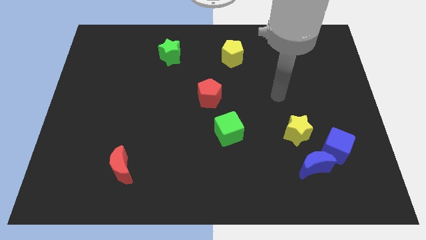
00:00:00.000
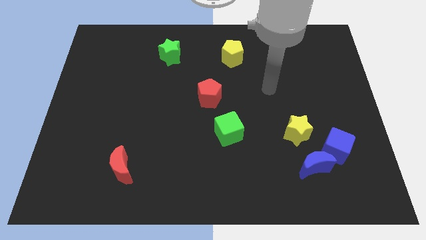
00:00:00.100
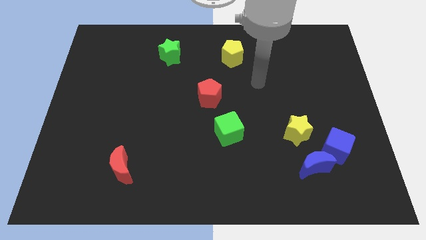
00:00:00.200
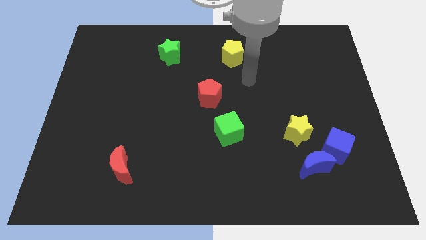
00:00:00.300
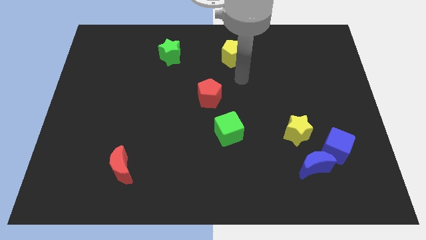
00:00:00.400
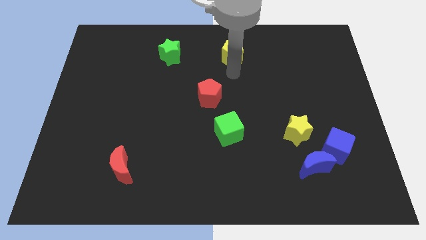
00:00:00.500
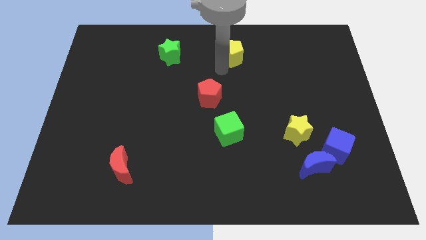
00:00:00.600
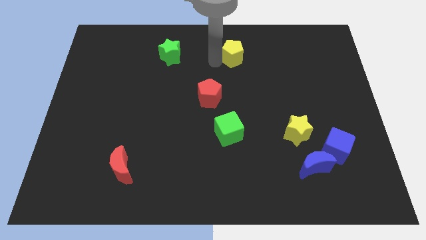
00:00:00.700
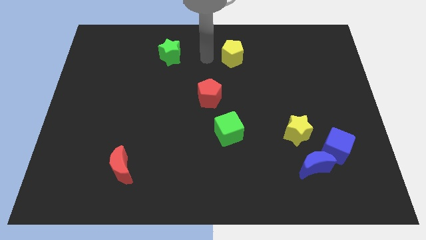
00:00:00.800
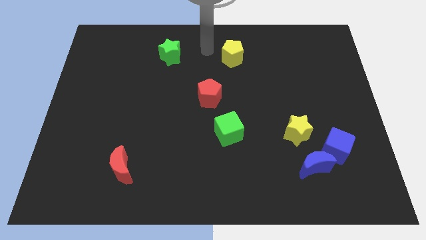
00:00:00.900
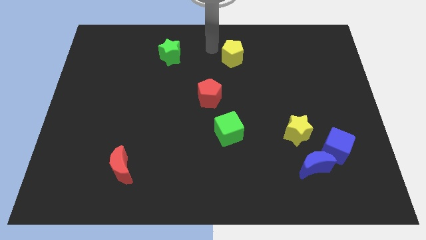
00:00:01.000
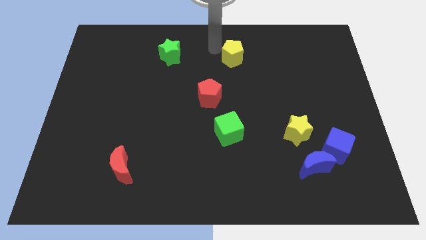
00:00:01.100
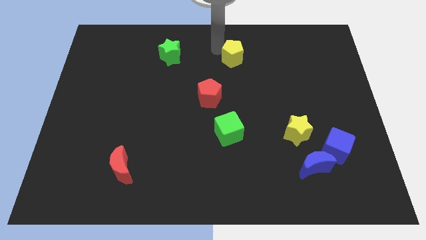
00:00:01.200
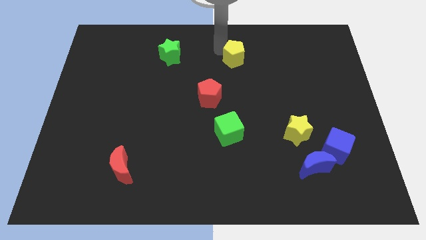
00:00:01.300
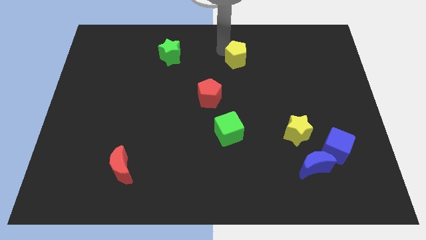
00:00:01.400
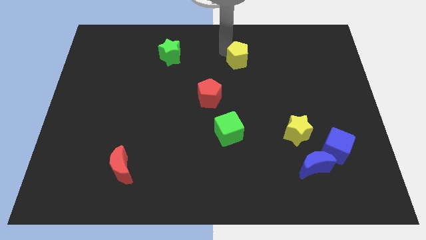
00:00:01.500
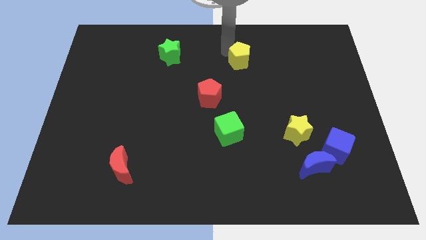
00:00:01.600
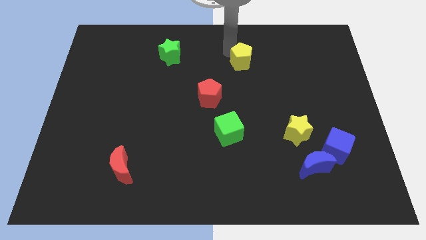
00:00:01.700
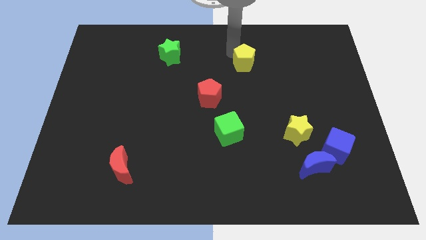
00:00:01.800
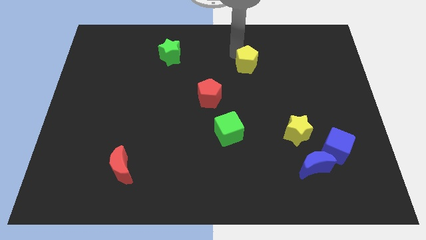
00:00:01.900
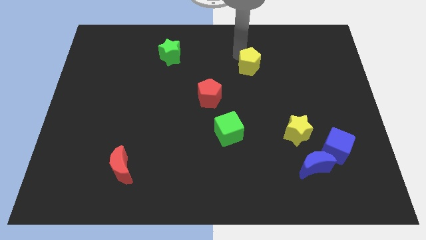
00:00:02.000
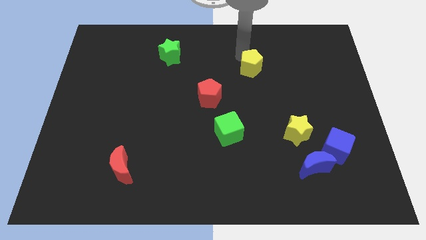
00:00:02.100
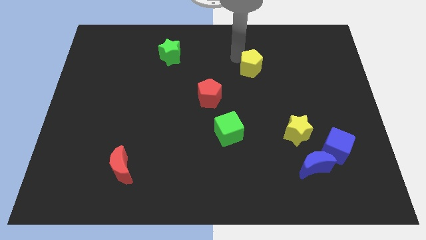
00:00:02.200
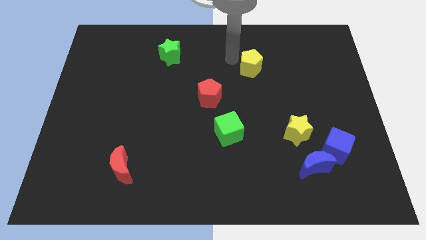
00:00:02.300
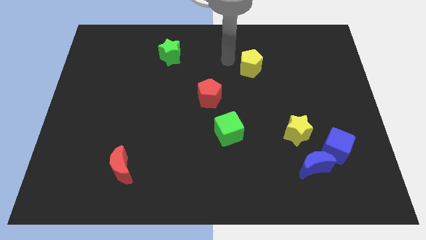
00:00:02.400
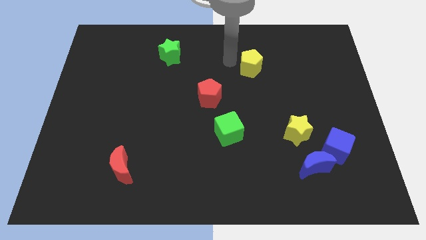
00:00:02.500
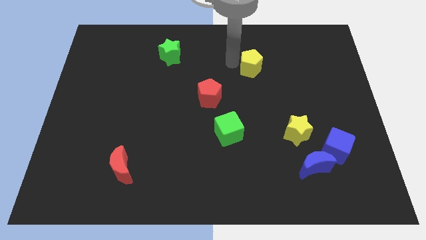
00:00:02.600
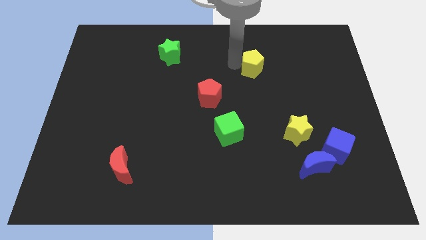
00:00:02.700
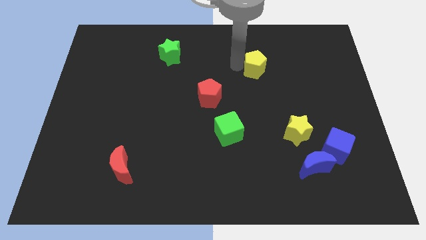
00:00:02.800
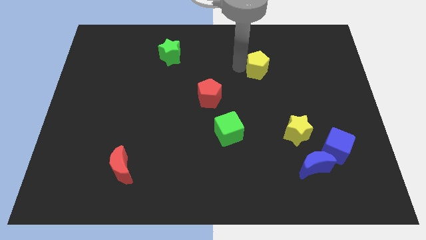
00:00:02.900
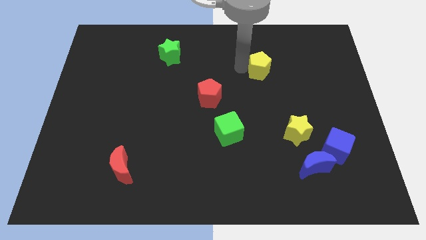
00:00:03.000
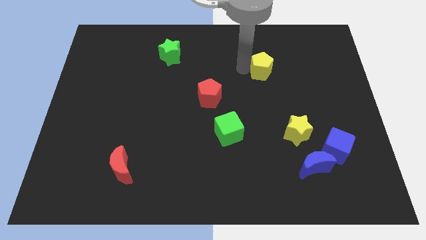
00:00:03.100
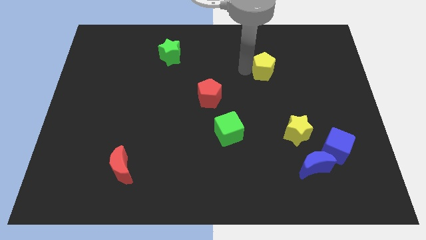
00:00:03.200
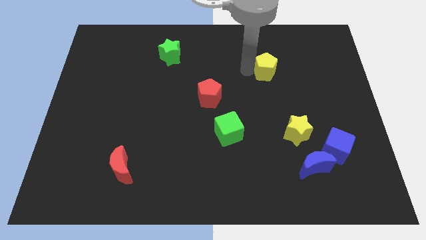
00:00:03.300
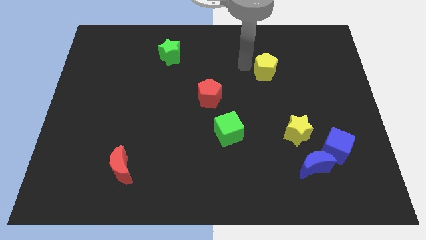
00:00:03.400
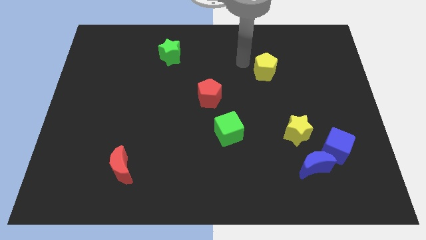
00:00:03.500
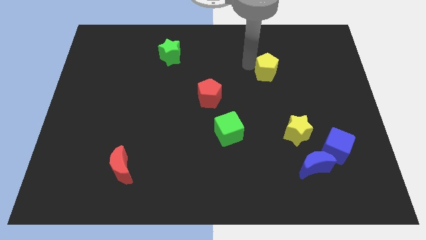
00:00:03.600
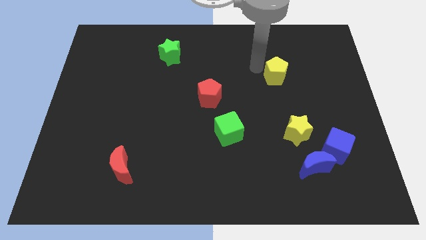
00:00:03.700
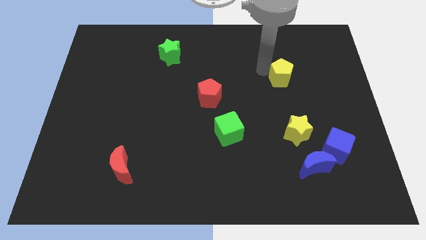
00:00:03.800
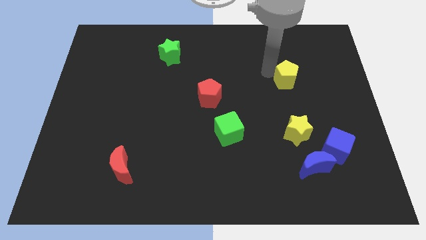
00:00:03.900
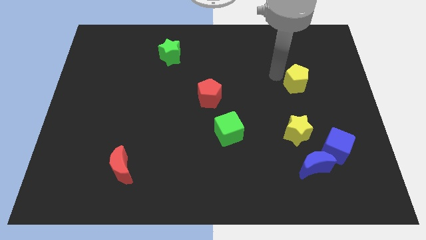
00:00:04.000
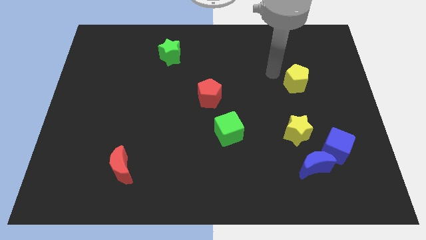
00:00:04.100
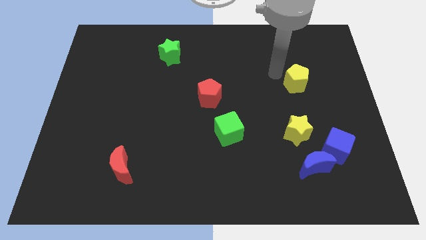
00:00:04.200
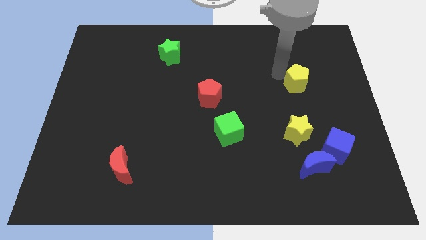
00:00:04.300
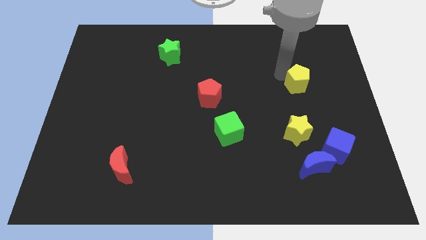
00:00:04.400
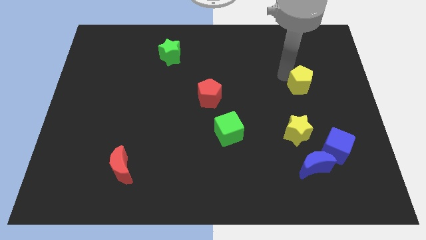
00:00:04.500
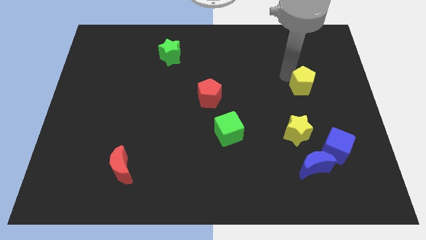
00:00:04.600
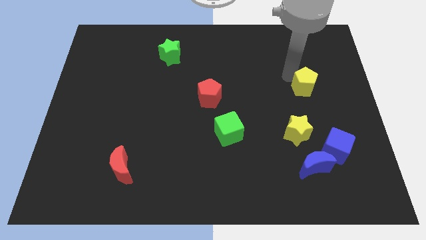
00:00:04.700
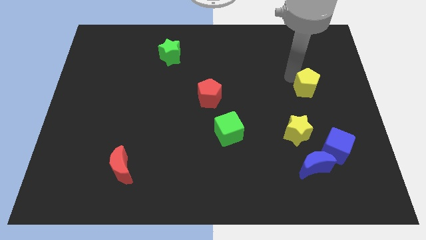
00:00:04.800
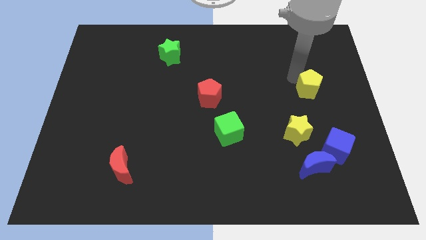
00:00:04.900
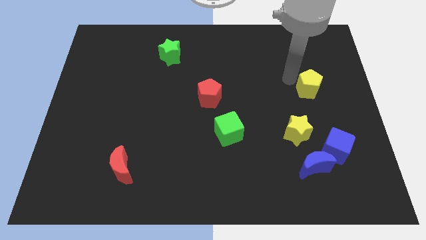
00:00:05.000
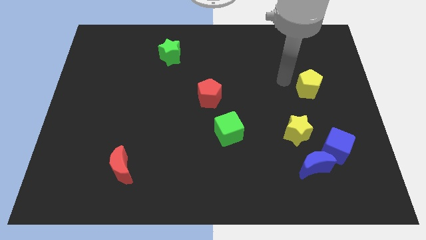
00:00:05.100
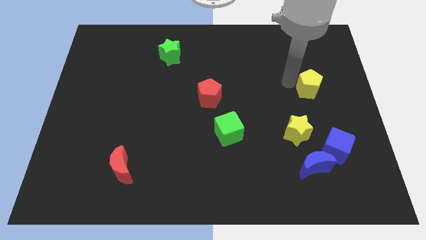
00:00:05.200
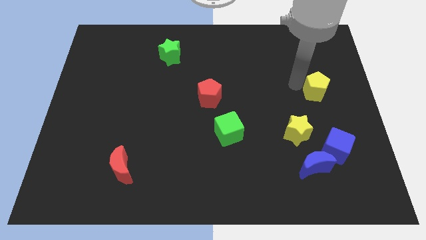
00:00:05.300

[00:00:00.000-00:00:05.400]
put the yellow pentagon to the right side of the board

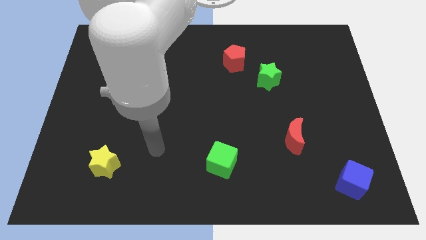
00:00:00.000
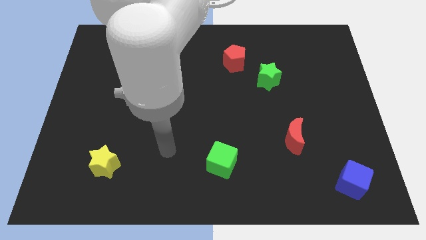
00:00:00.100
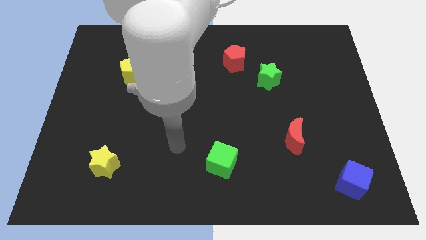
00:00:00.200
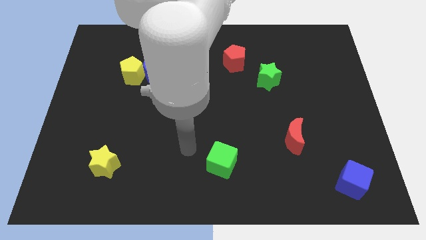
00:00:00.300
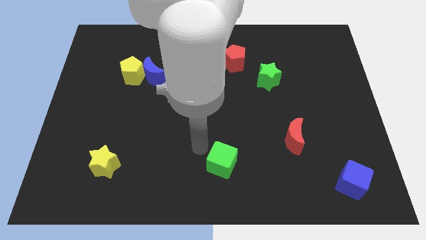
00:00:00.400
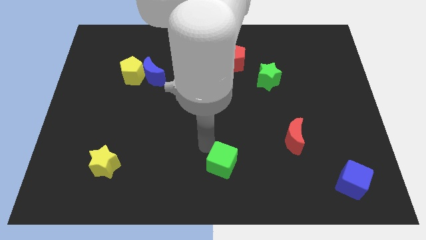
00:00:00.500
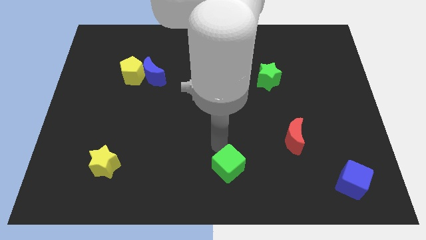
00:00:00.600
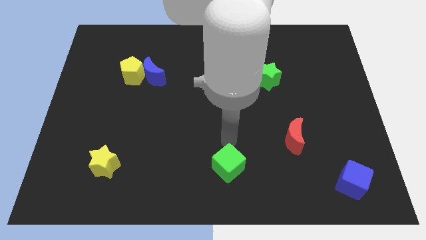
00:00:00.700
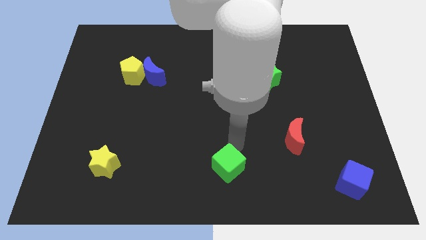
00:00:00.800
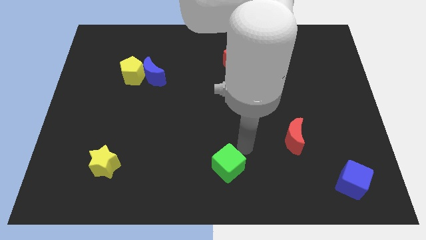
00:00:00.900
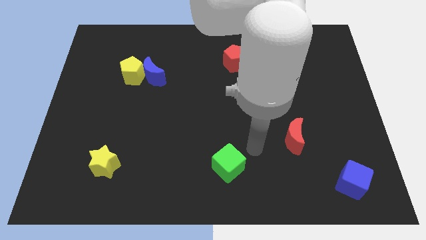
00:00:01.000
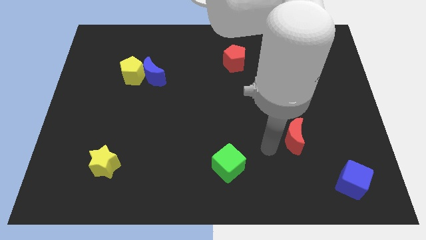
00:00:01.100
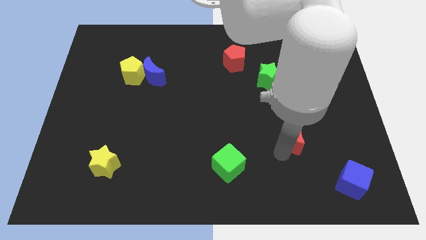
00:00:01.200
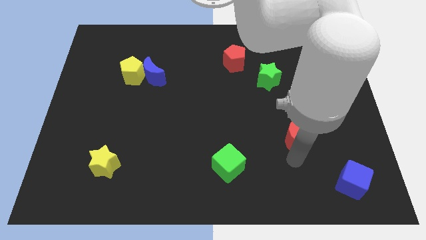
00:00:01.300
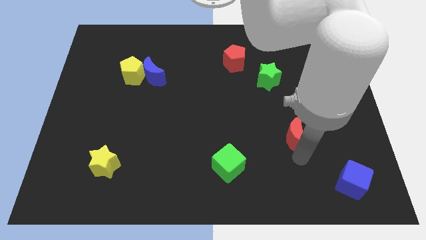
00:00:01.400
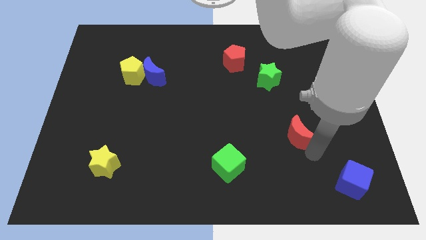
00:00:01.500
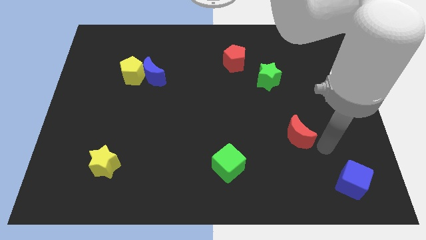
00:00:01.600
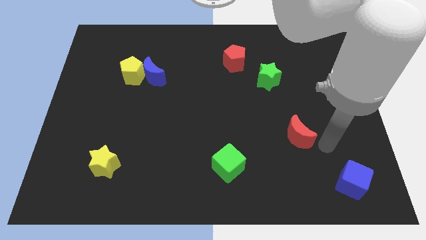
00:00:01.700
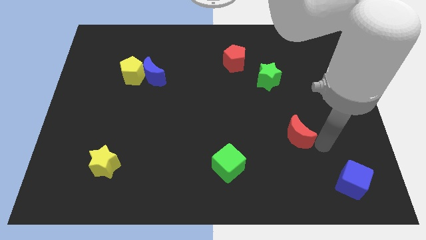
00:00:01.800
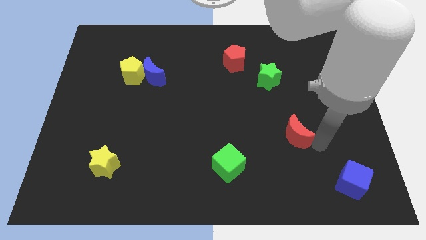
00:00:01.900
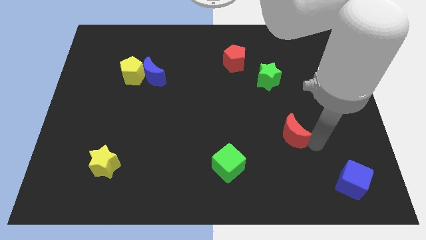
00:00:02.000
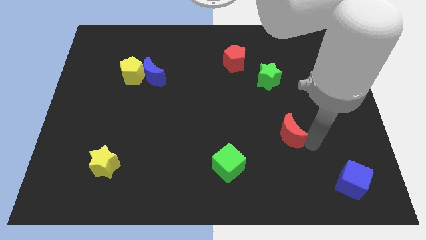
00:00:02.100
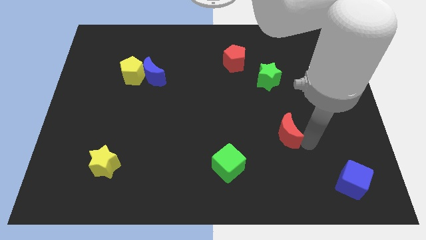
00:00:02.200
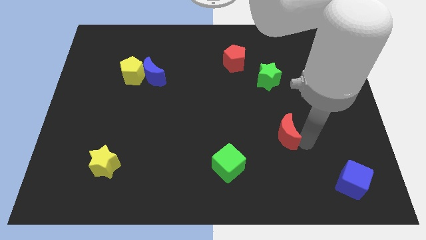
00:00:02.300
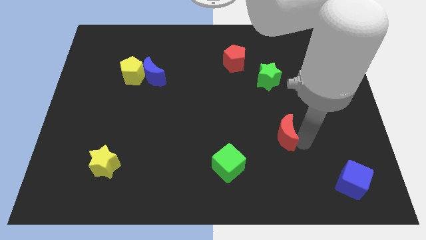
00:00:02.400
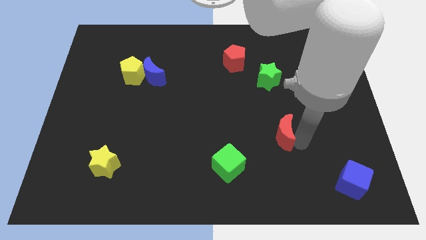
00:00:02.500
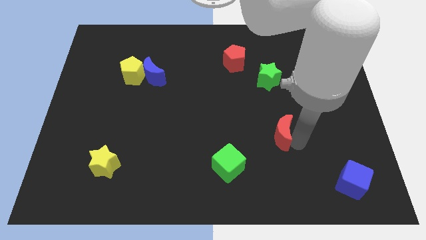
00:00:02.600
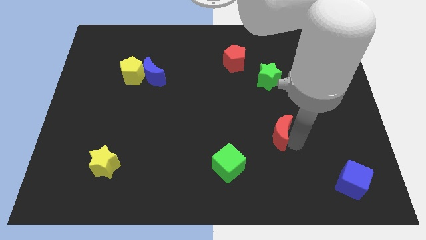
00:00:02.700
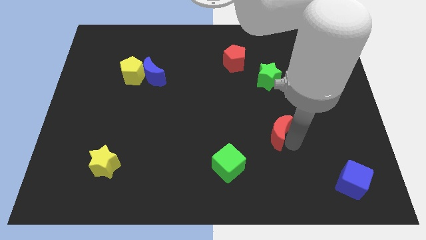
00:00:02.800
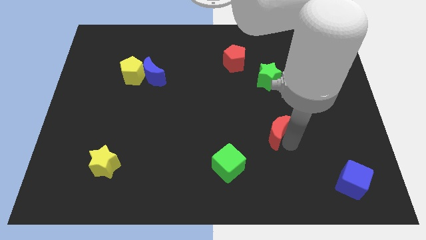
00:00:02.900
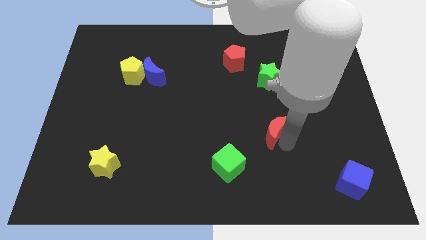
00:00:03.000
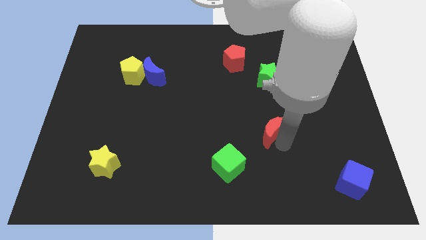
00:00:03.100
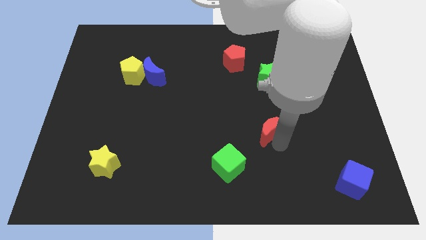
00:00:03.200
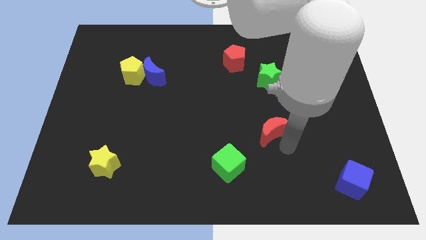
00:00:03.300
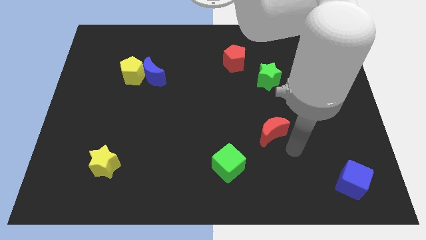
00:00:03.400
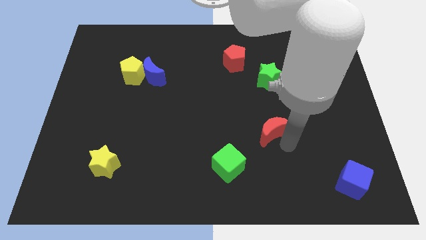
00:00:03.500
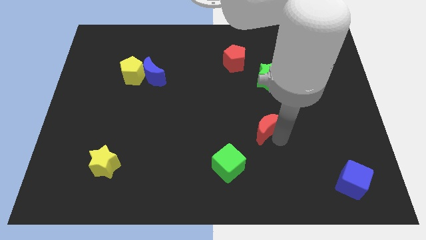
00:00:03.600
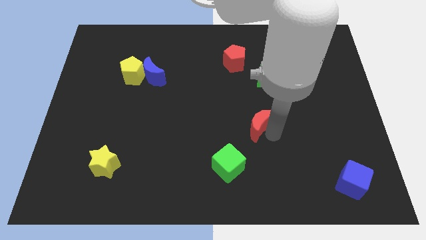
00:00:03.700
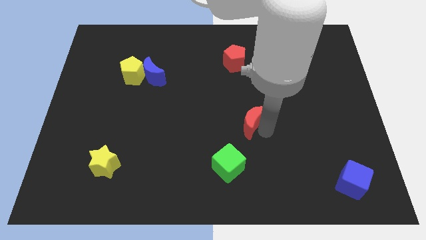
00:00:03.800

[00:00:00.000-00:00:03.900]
put the red moon to the center
